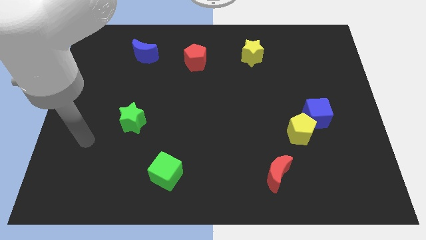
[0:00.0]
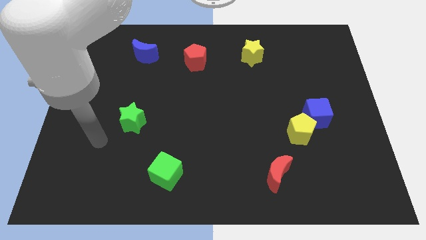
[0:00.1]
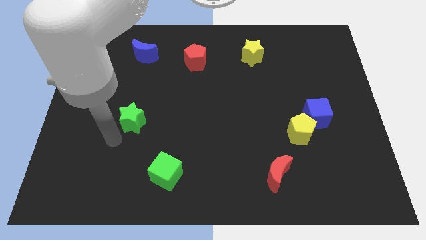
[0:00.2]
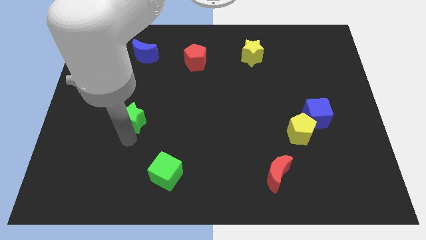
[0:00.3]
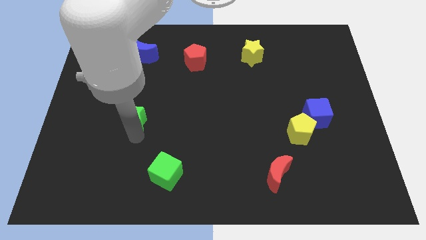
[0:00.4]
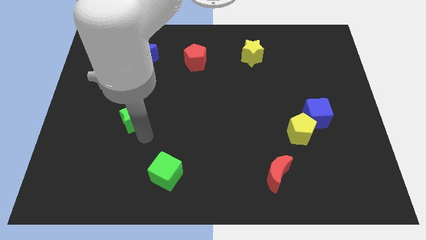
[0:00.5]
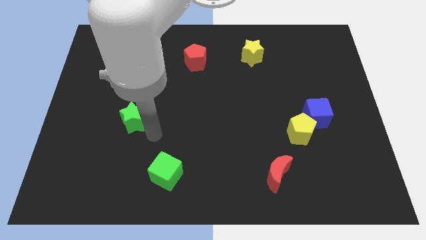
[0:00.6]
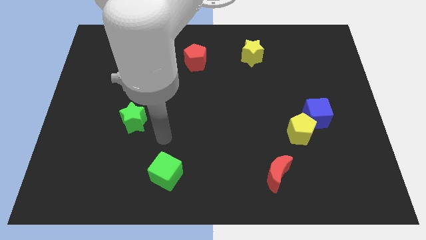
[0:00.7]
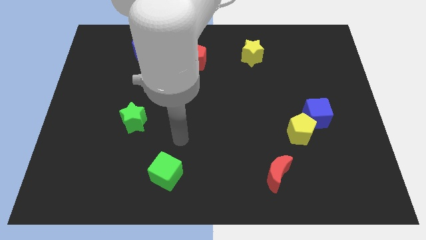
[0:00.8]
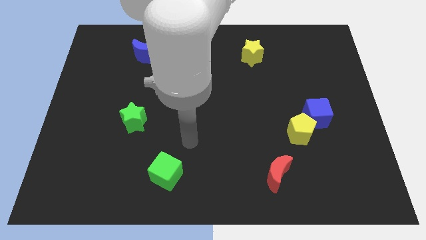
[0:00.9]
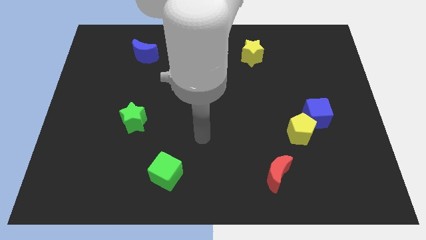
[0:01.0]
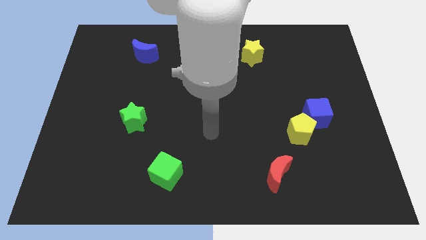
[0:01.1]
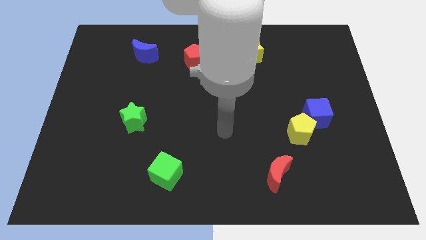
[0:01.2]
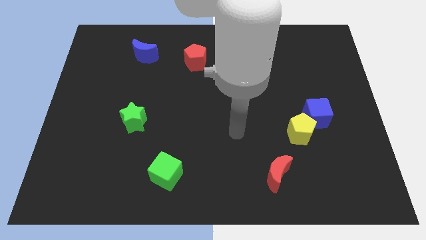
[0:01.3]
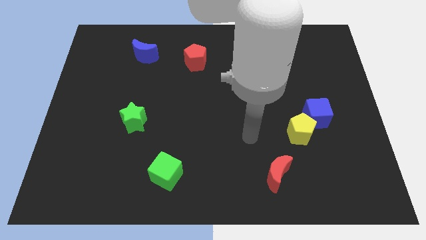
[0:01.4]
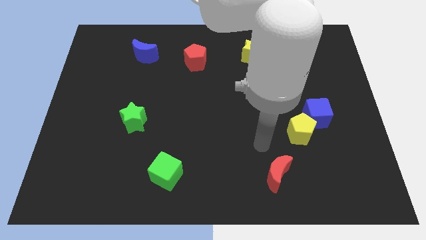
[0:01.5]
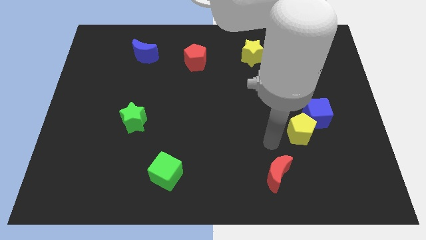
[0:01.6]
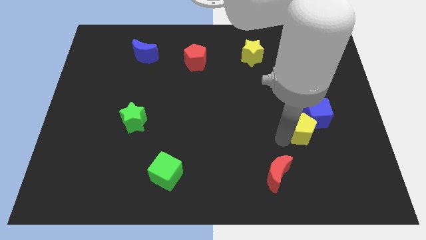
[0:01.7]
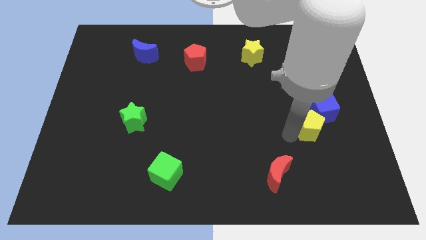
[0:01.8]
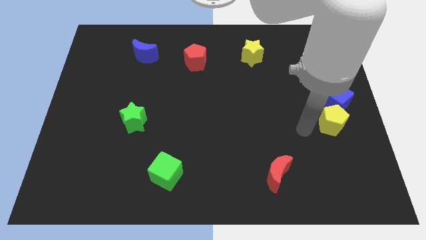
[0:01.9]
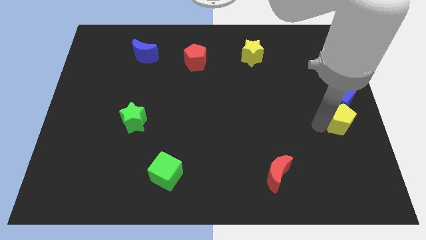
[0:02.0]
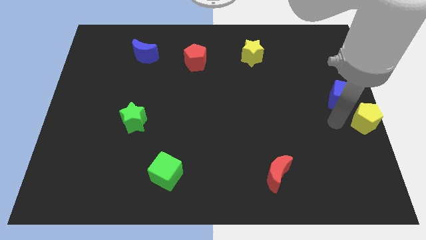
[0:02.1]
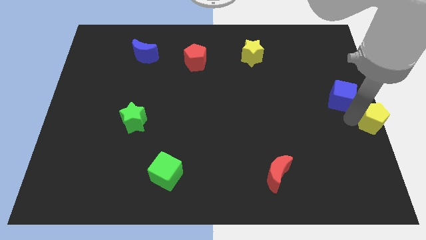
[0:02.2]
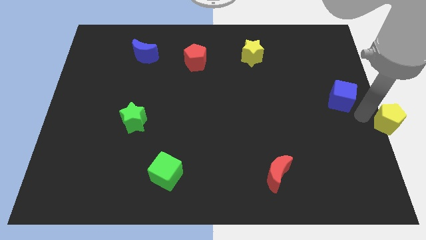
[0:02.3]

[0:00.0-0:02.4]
move the blue cube away from the yellow pentagon

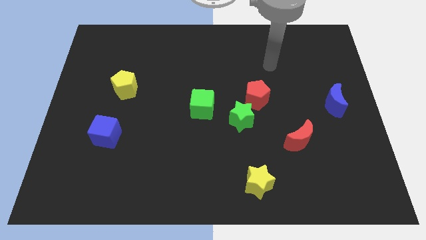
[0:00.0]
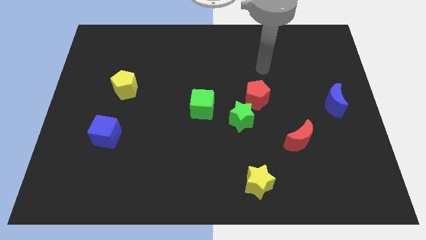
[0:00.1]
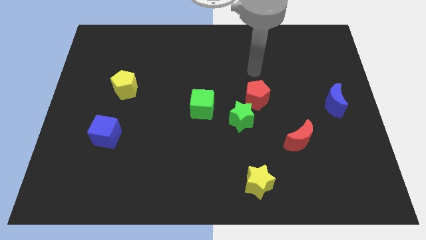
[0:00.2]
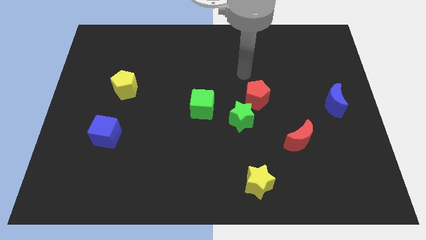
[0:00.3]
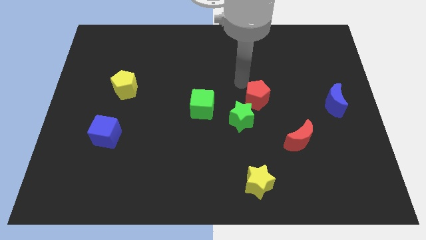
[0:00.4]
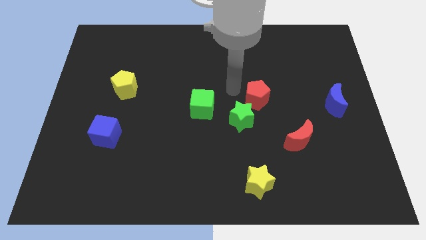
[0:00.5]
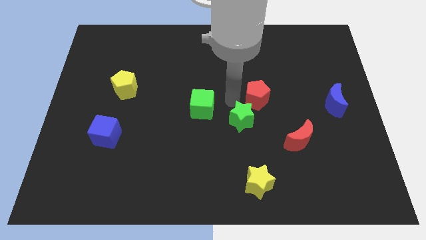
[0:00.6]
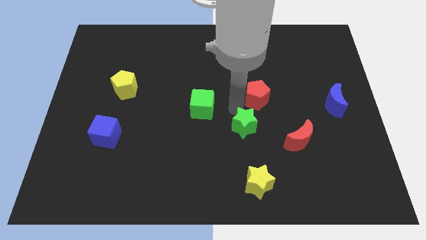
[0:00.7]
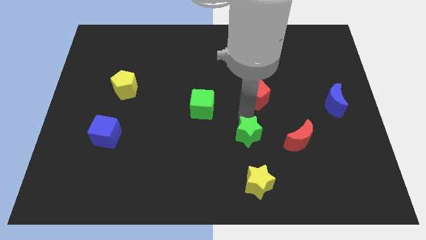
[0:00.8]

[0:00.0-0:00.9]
pull the red pentagon apart from the green star

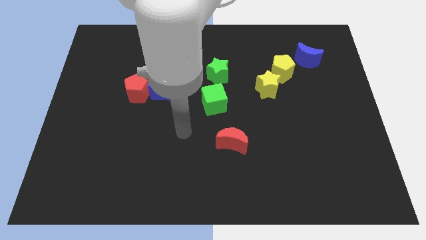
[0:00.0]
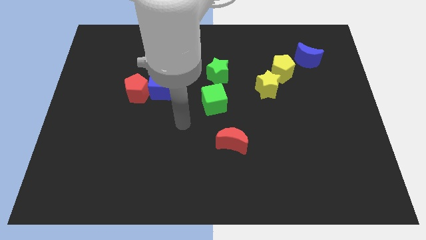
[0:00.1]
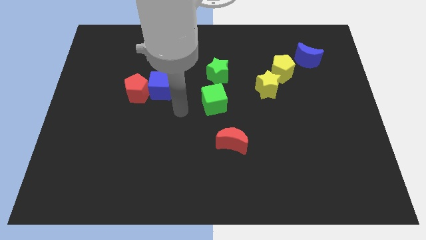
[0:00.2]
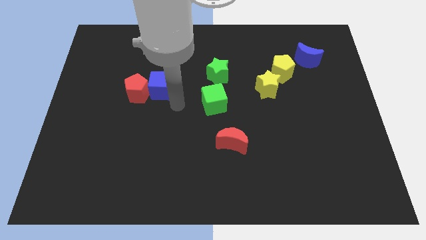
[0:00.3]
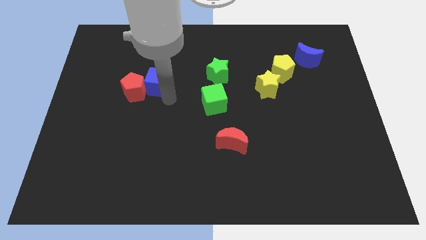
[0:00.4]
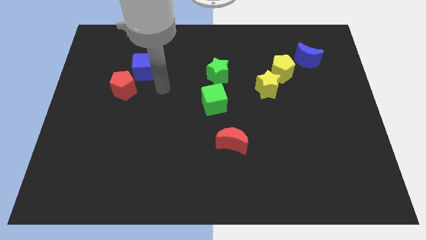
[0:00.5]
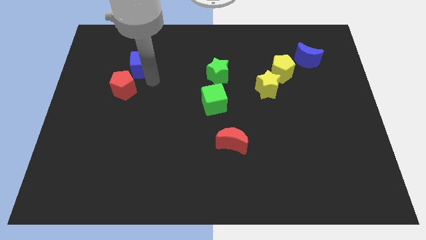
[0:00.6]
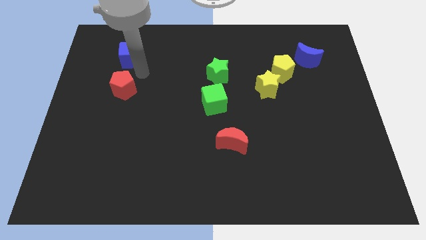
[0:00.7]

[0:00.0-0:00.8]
pull the red pentagon apart from the blue cube

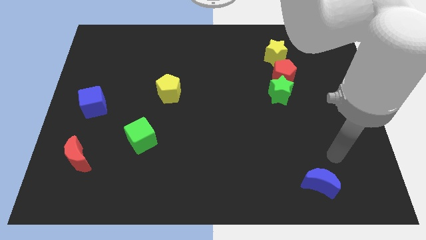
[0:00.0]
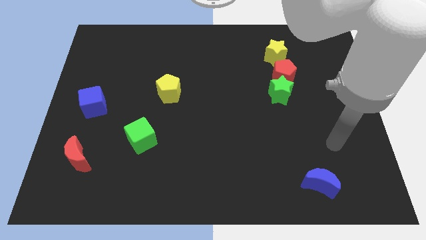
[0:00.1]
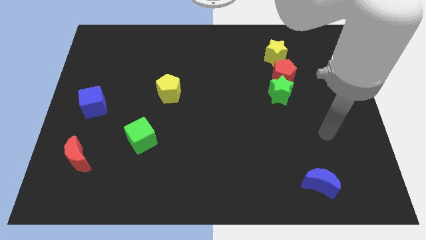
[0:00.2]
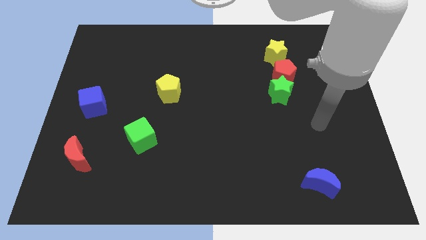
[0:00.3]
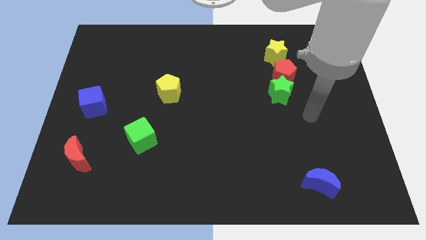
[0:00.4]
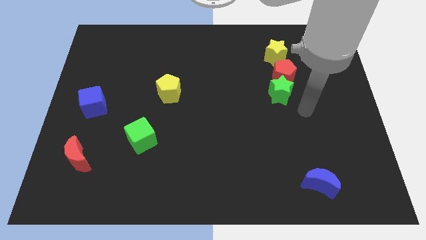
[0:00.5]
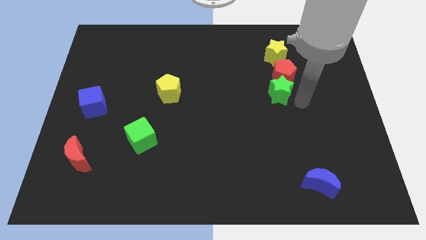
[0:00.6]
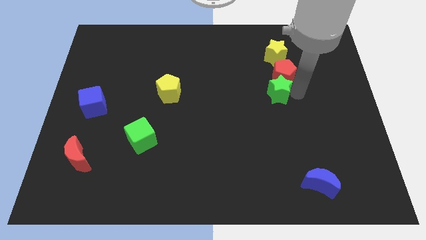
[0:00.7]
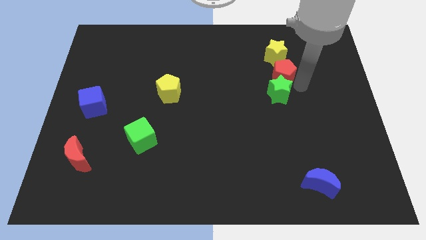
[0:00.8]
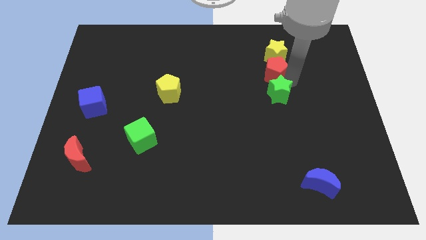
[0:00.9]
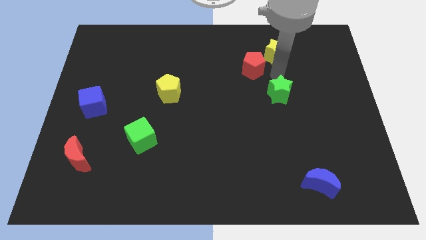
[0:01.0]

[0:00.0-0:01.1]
pull the green star apart from the red pentagon

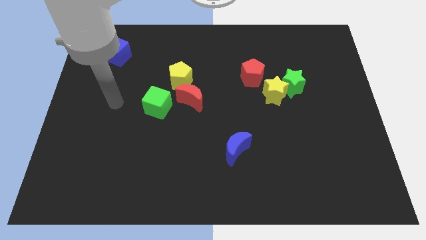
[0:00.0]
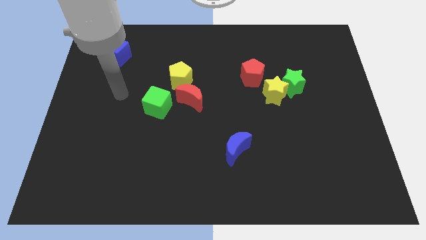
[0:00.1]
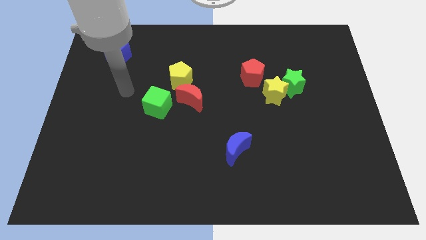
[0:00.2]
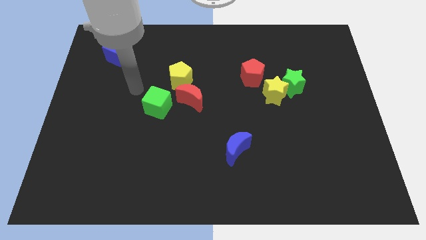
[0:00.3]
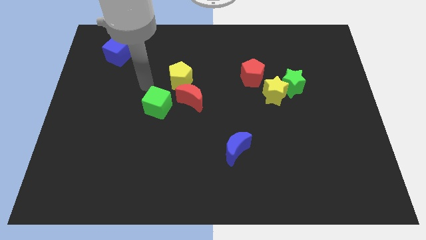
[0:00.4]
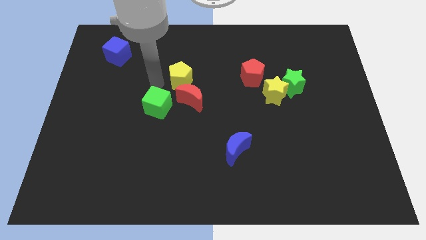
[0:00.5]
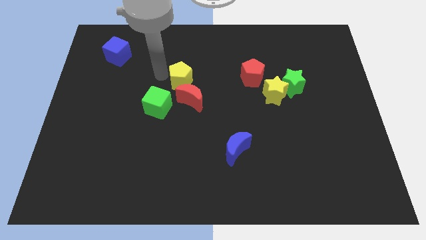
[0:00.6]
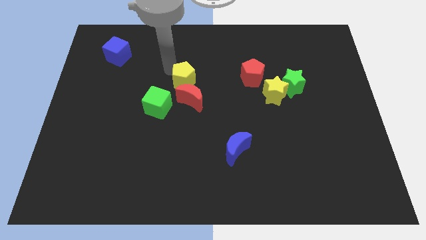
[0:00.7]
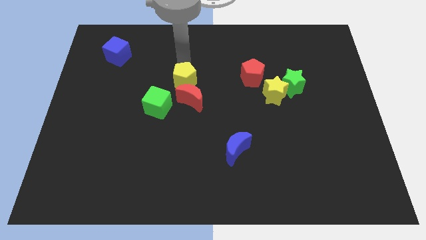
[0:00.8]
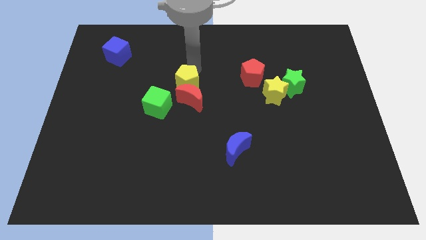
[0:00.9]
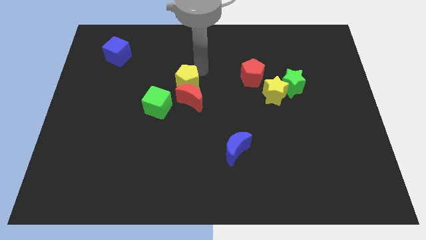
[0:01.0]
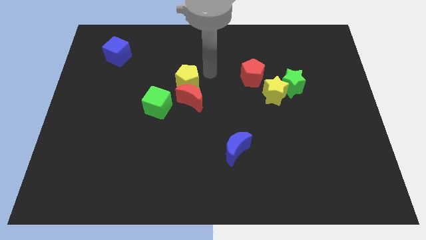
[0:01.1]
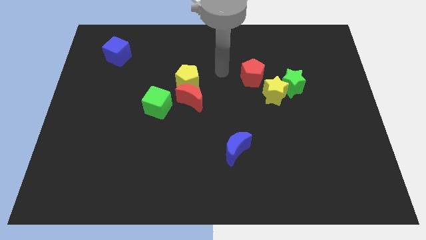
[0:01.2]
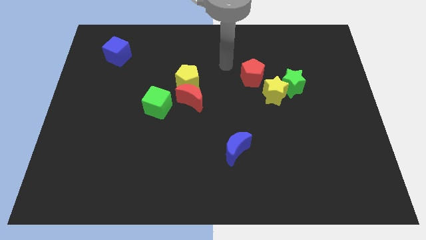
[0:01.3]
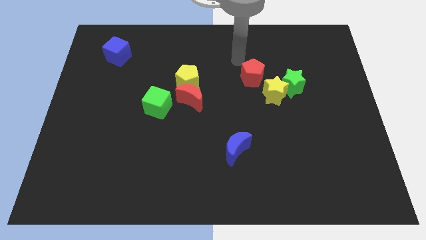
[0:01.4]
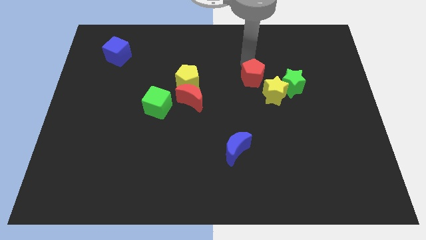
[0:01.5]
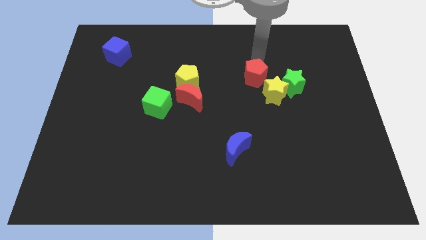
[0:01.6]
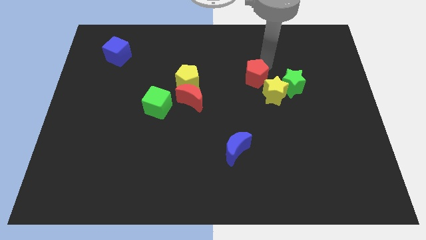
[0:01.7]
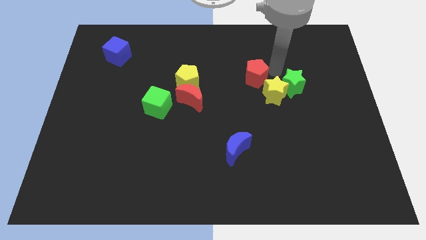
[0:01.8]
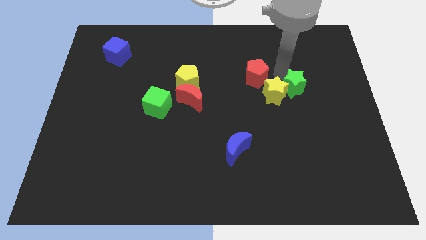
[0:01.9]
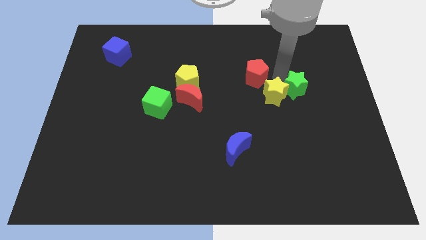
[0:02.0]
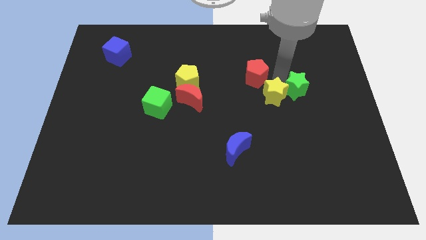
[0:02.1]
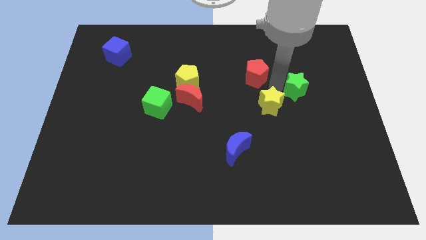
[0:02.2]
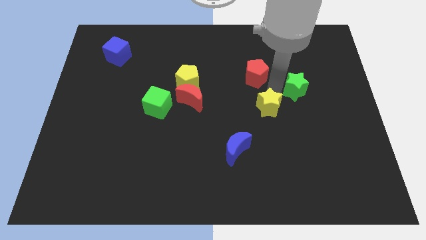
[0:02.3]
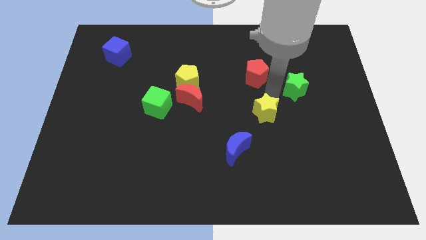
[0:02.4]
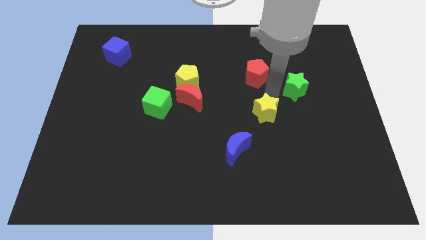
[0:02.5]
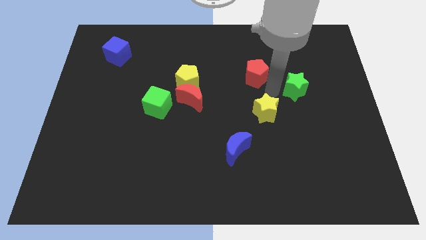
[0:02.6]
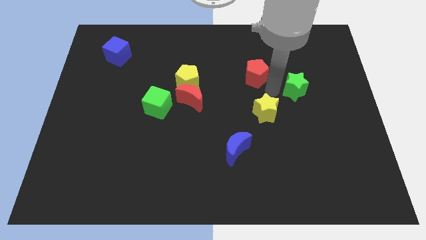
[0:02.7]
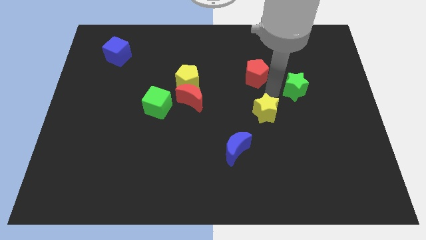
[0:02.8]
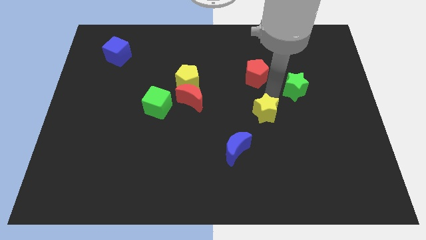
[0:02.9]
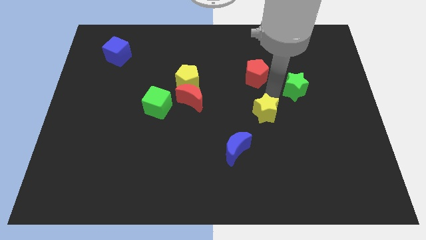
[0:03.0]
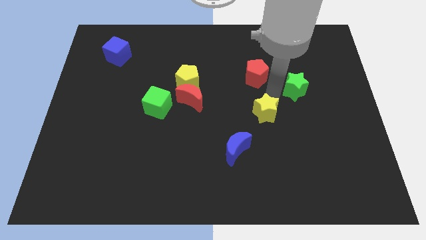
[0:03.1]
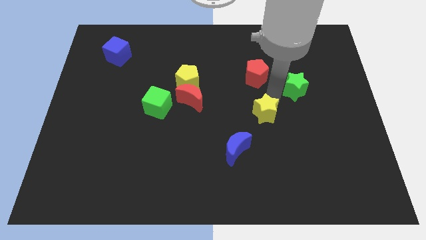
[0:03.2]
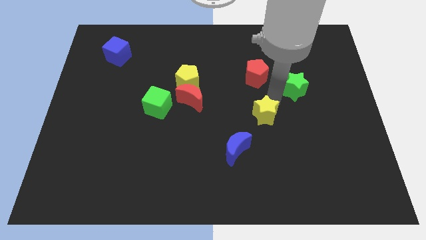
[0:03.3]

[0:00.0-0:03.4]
separate the yellow star from the green star and red pentagon

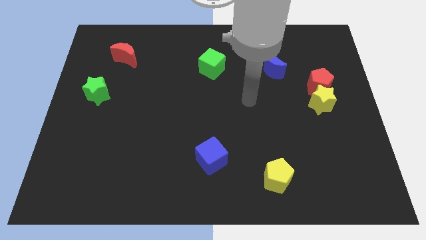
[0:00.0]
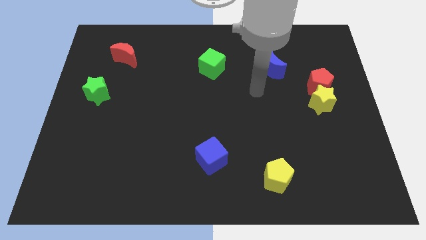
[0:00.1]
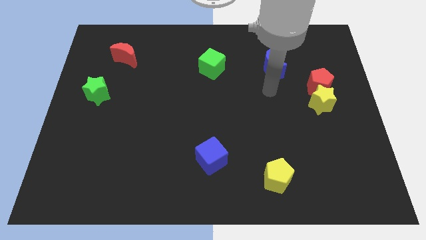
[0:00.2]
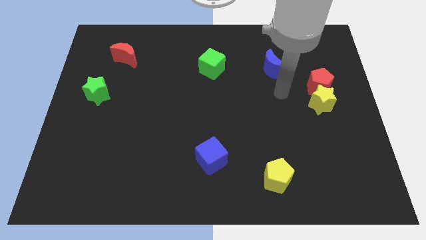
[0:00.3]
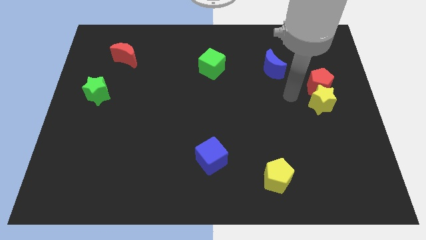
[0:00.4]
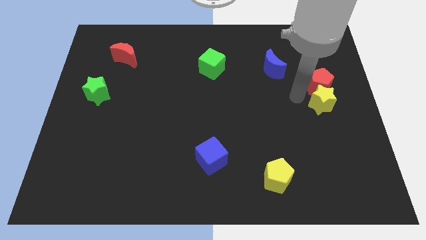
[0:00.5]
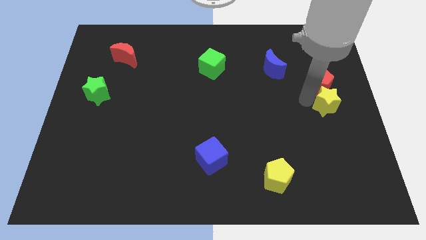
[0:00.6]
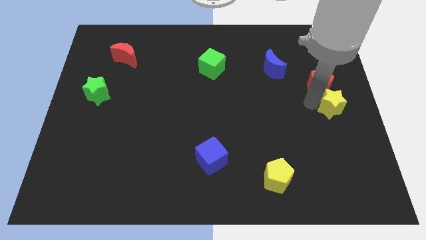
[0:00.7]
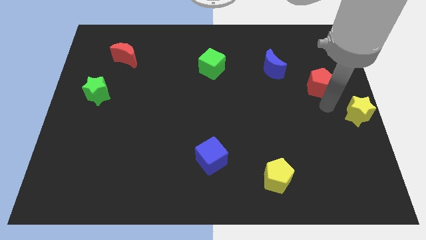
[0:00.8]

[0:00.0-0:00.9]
separate the red pentagon from the yellow star
